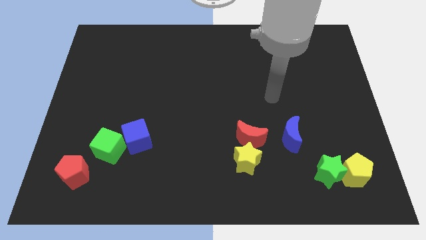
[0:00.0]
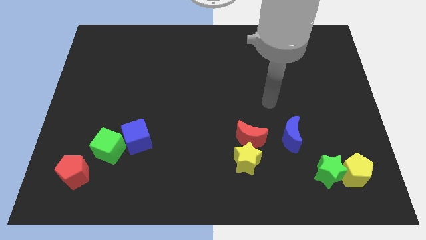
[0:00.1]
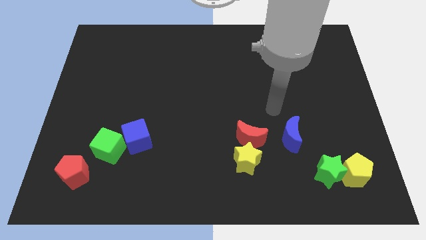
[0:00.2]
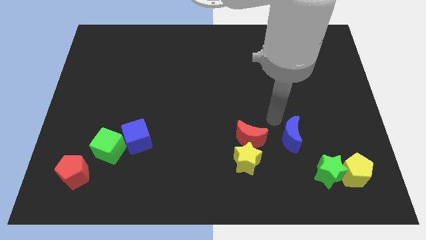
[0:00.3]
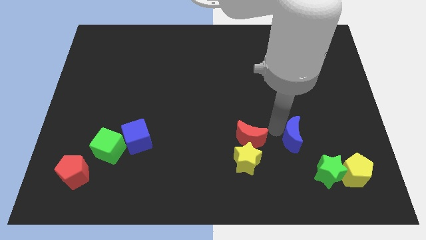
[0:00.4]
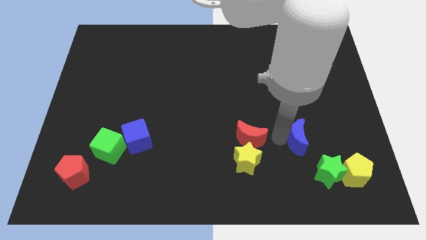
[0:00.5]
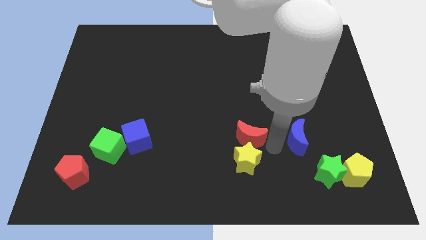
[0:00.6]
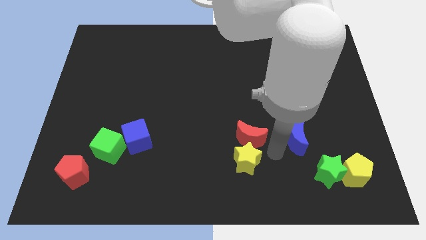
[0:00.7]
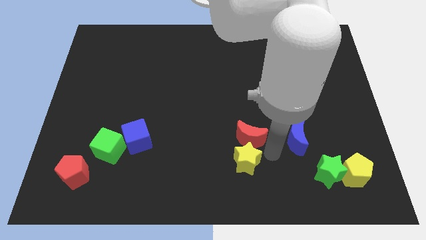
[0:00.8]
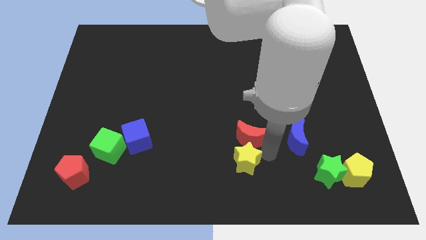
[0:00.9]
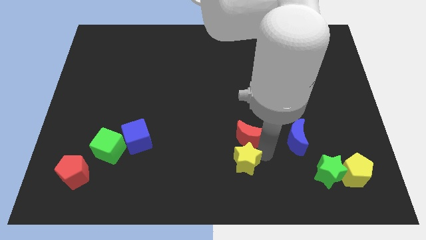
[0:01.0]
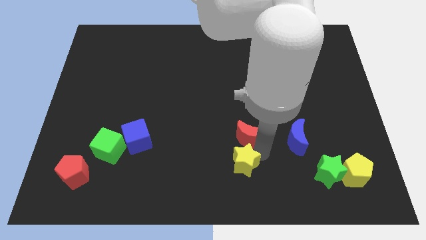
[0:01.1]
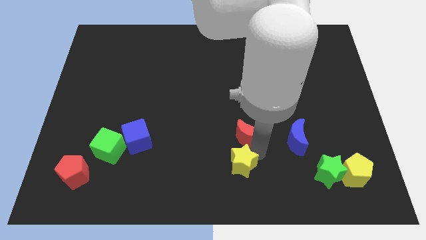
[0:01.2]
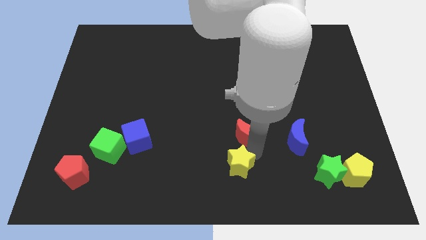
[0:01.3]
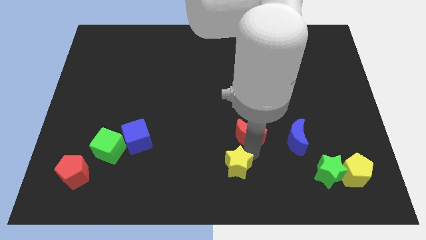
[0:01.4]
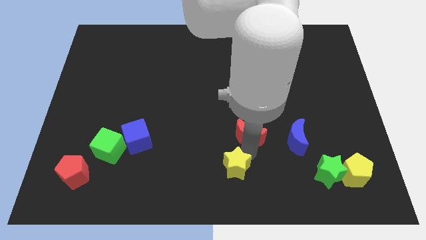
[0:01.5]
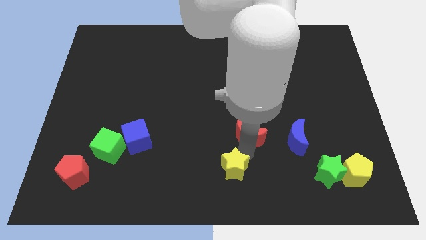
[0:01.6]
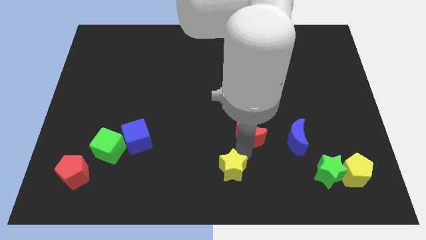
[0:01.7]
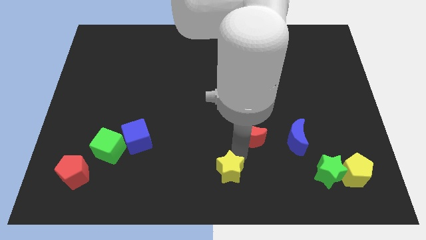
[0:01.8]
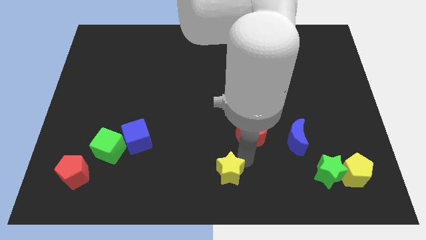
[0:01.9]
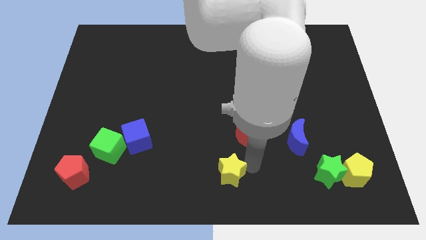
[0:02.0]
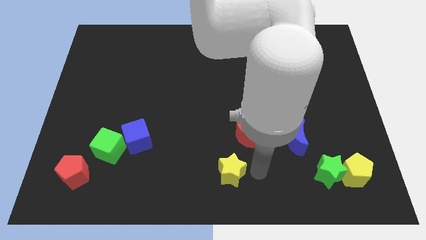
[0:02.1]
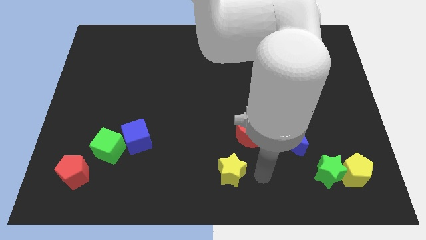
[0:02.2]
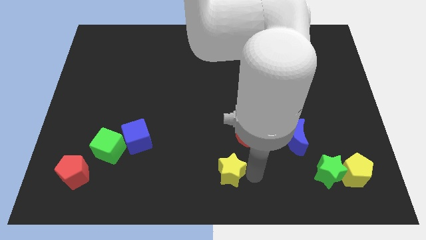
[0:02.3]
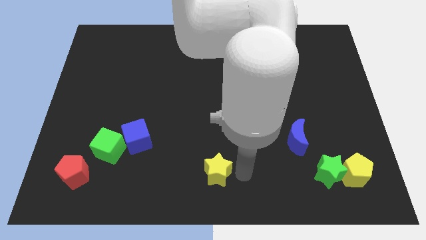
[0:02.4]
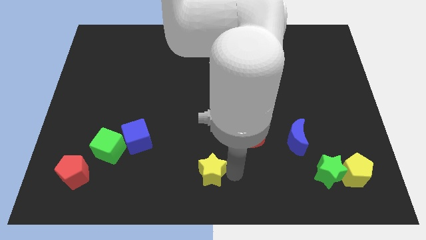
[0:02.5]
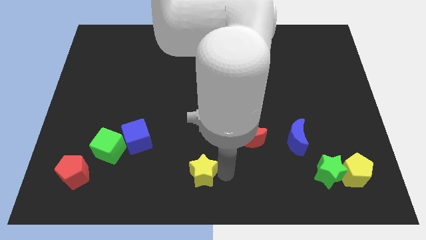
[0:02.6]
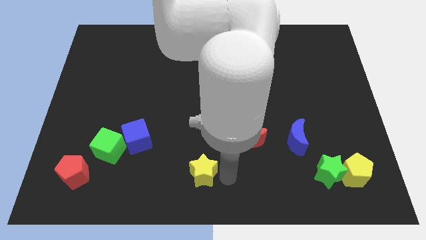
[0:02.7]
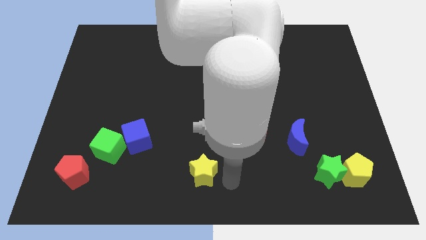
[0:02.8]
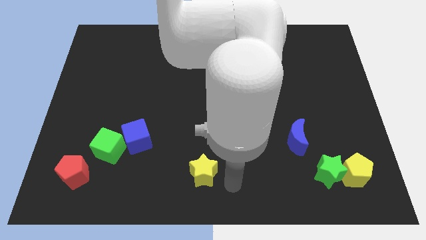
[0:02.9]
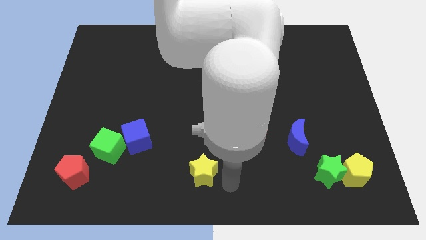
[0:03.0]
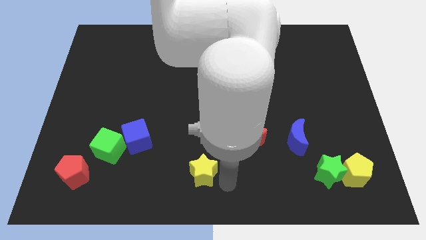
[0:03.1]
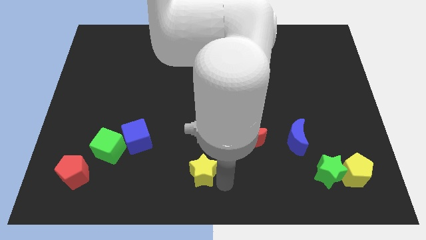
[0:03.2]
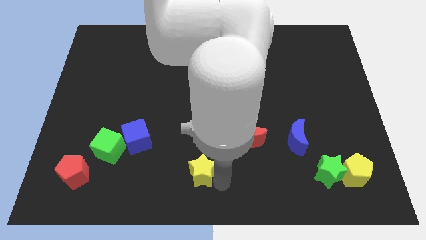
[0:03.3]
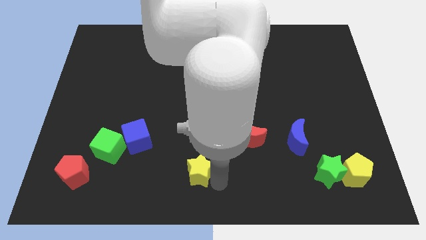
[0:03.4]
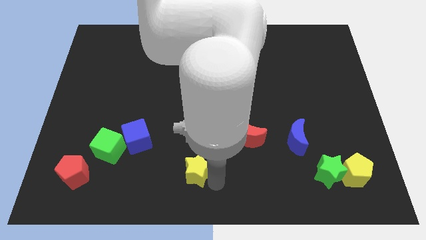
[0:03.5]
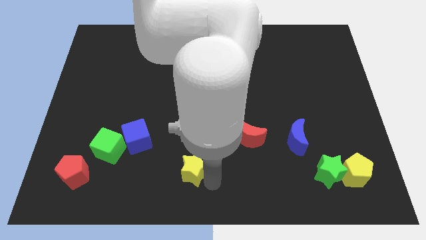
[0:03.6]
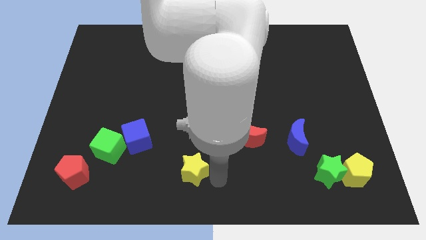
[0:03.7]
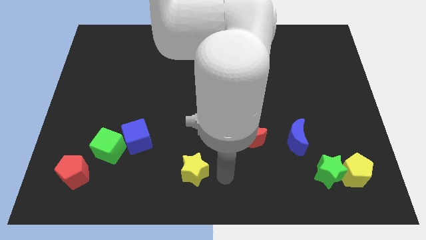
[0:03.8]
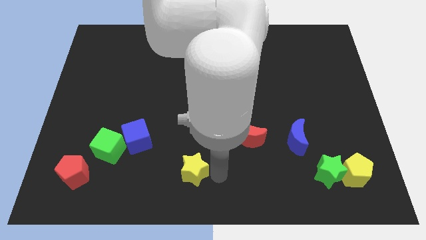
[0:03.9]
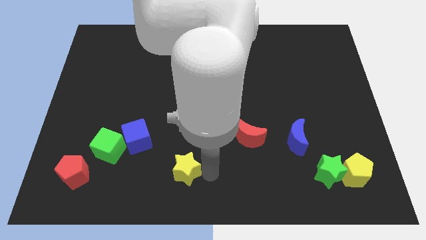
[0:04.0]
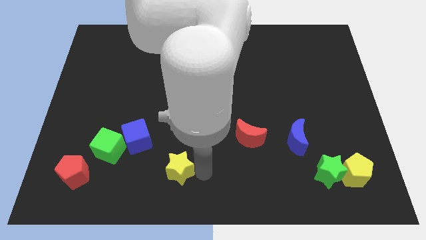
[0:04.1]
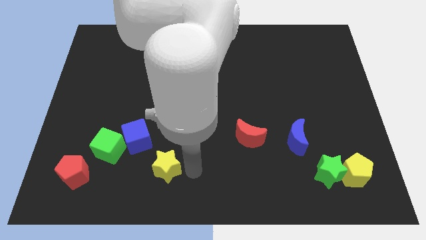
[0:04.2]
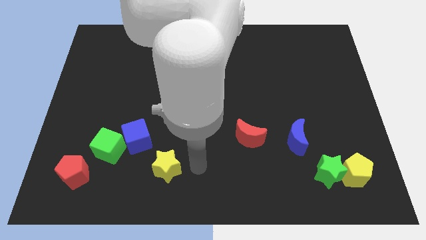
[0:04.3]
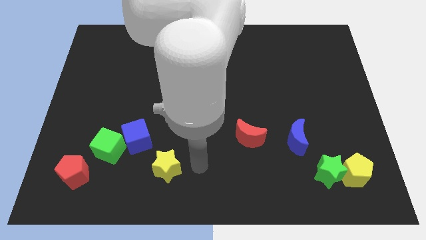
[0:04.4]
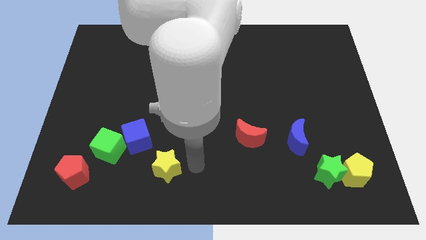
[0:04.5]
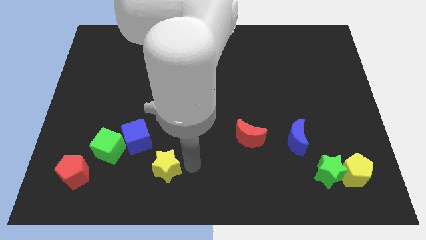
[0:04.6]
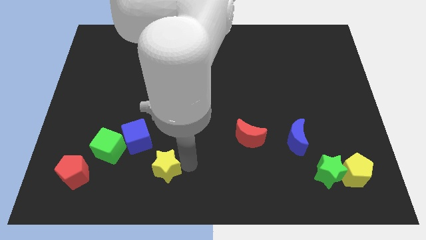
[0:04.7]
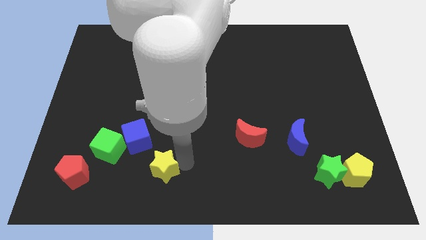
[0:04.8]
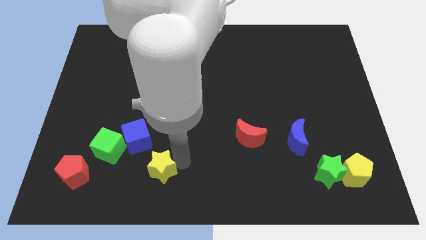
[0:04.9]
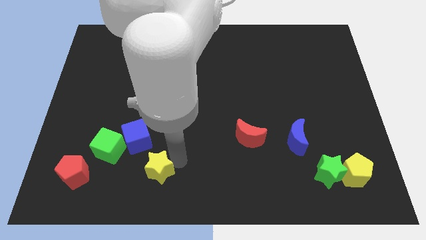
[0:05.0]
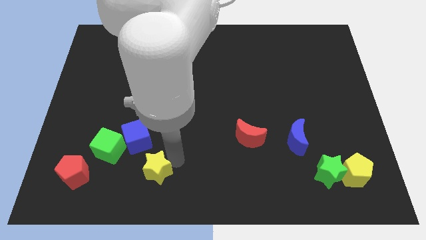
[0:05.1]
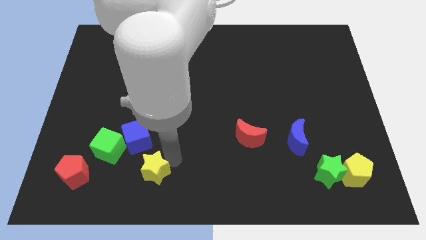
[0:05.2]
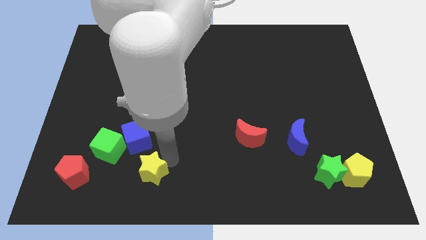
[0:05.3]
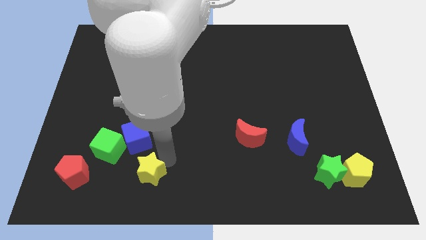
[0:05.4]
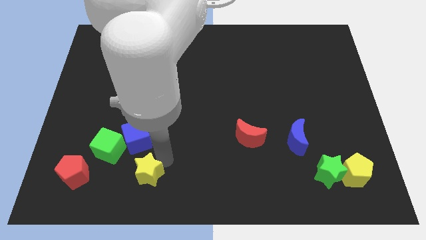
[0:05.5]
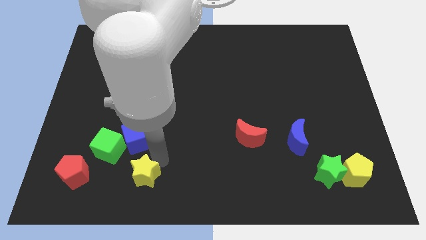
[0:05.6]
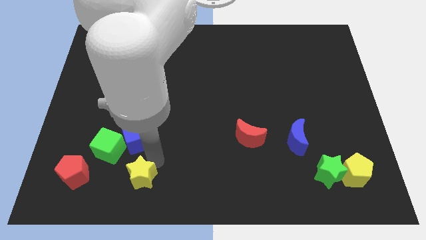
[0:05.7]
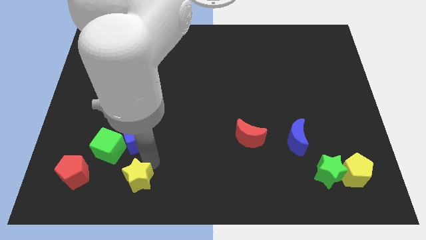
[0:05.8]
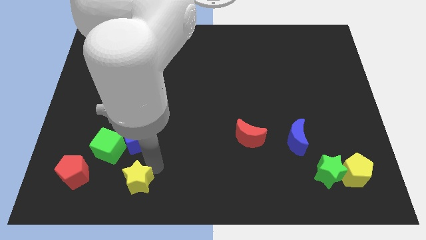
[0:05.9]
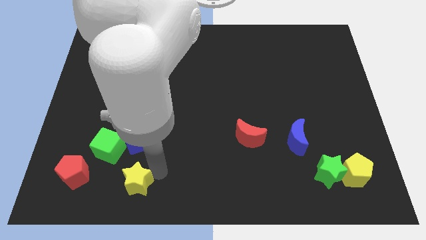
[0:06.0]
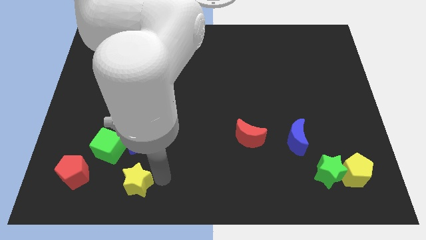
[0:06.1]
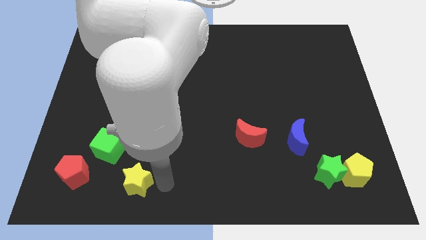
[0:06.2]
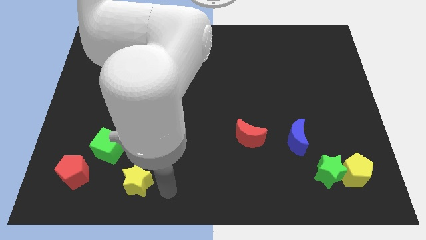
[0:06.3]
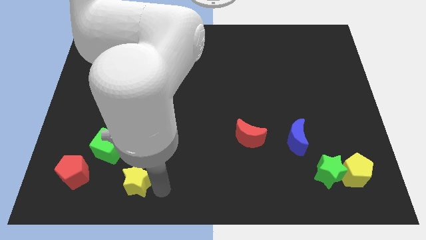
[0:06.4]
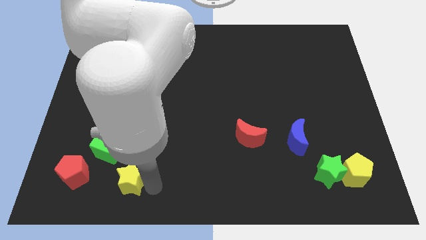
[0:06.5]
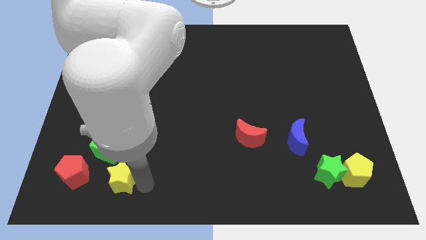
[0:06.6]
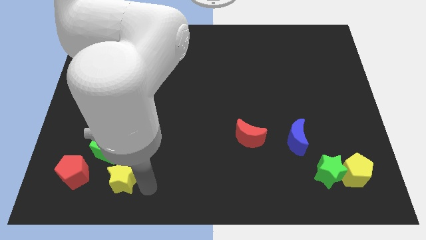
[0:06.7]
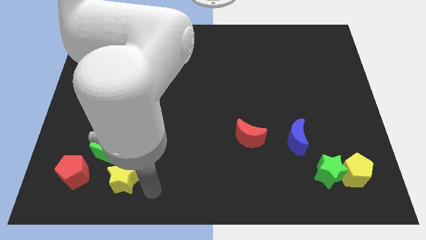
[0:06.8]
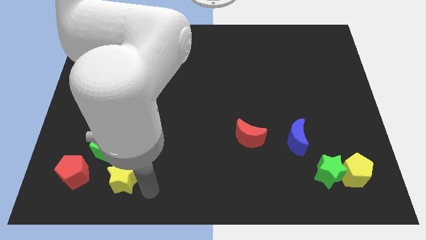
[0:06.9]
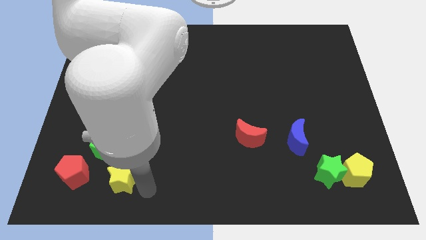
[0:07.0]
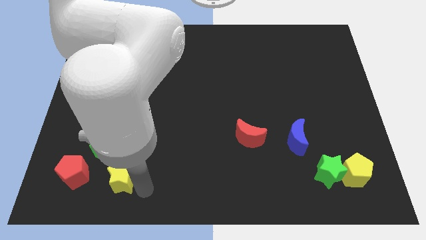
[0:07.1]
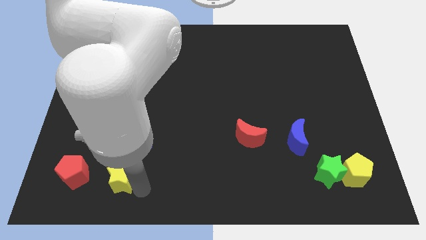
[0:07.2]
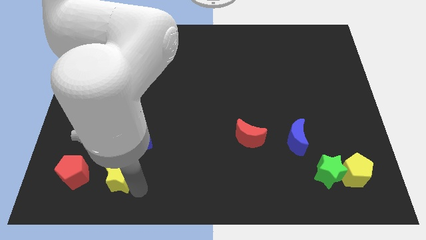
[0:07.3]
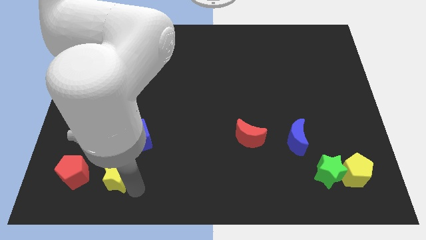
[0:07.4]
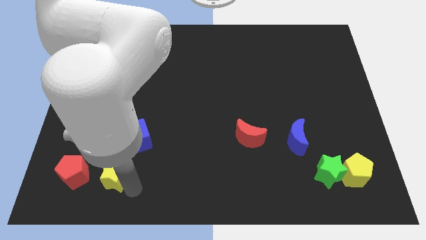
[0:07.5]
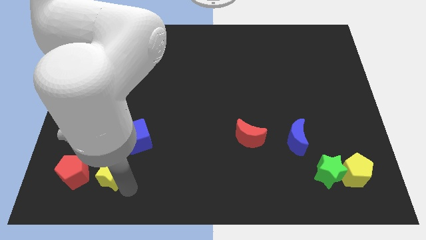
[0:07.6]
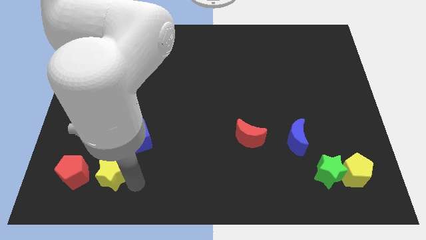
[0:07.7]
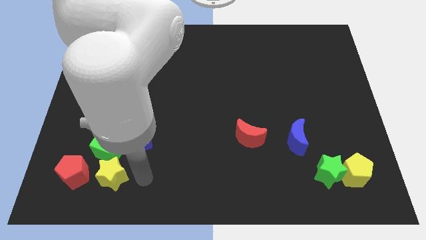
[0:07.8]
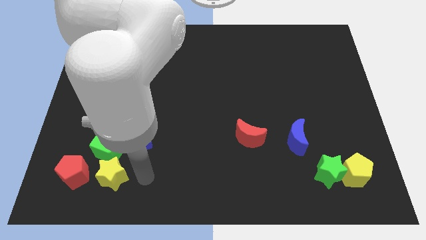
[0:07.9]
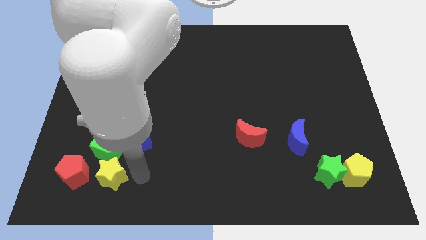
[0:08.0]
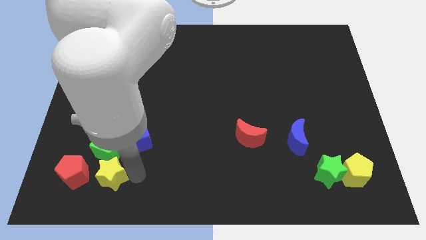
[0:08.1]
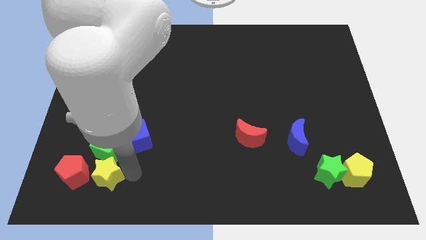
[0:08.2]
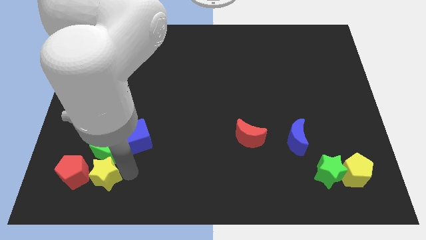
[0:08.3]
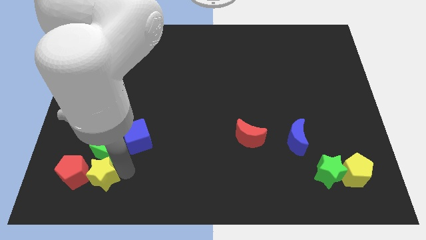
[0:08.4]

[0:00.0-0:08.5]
slide the yellow star next to the red pentagon
